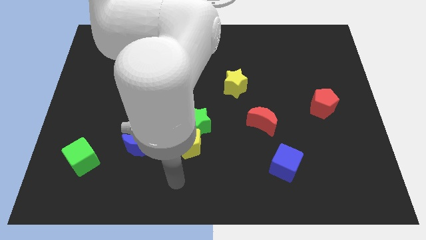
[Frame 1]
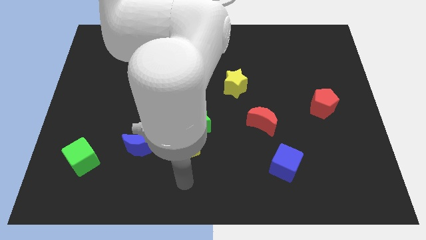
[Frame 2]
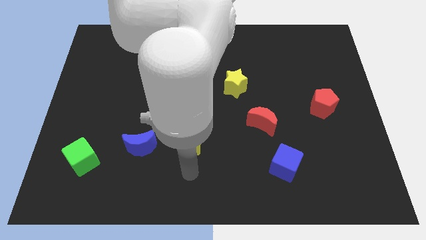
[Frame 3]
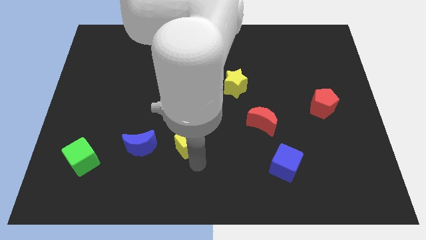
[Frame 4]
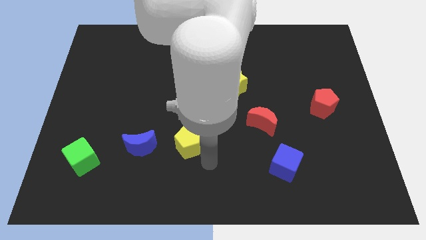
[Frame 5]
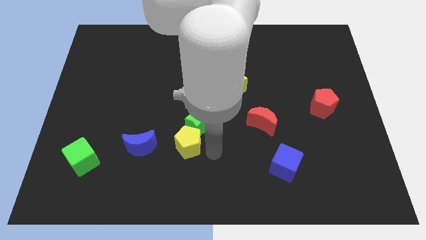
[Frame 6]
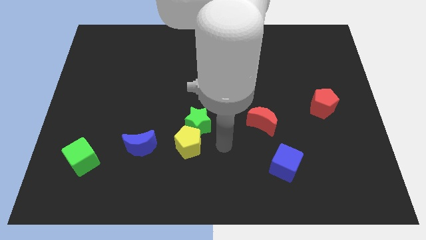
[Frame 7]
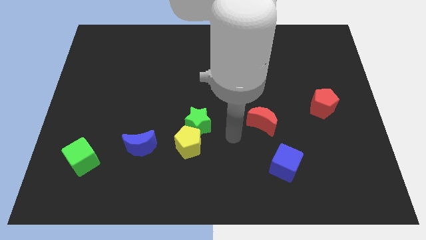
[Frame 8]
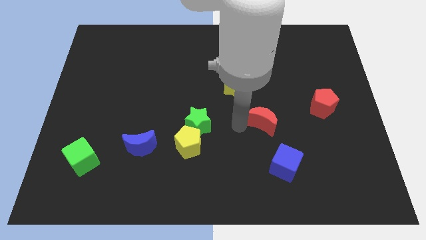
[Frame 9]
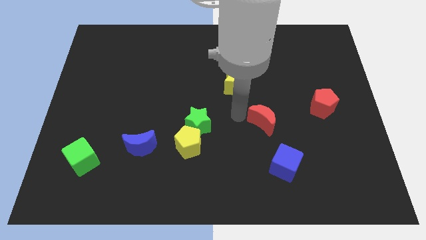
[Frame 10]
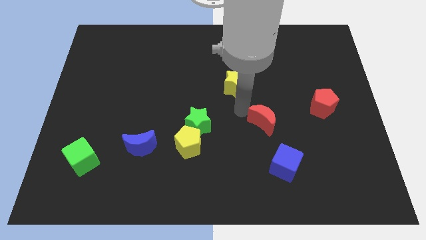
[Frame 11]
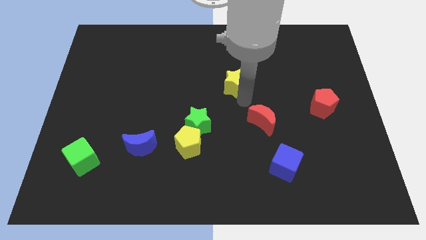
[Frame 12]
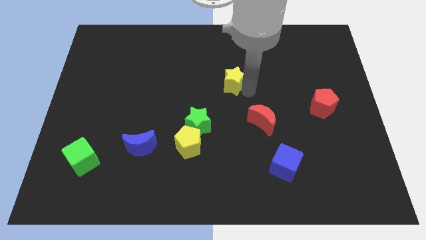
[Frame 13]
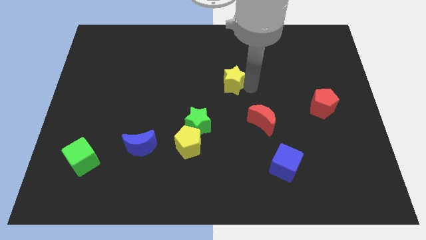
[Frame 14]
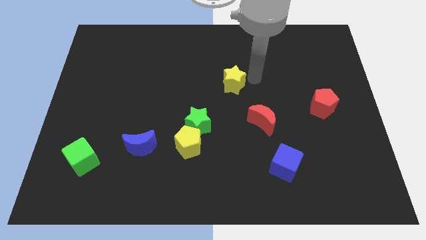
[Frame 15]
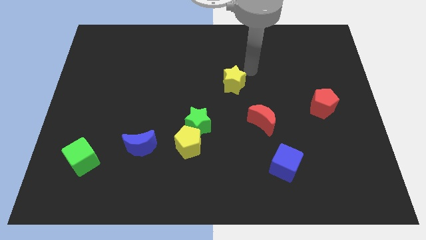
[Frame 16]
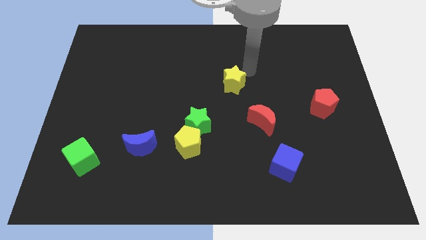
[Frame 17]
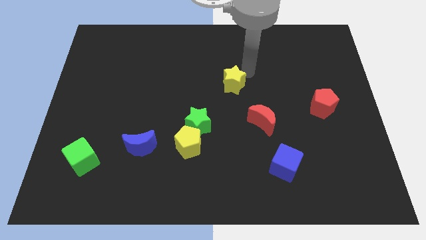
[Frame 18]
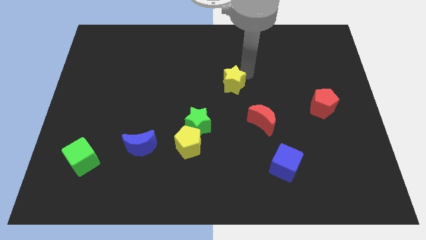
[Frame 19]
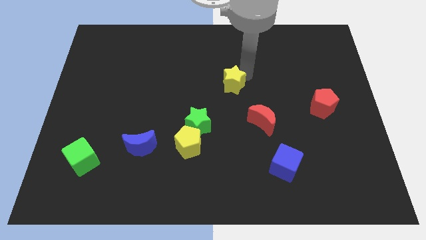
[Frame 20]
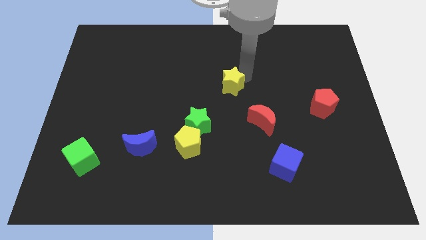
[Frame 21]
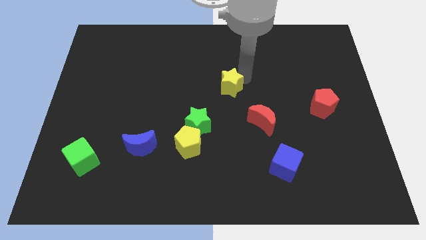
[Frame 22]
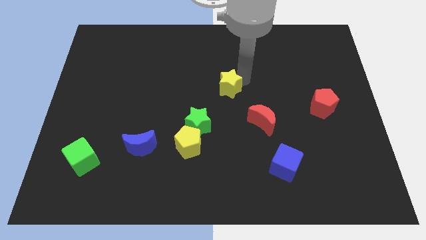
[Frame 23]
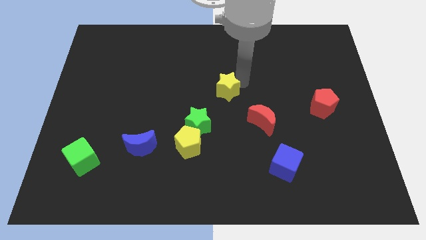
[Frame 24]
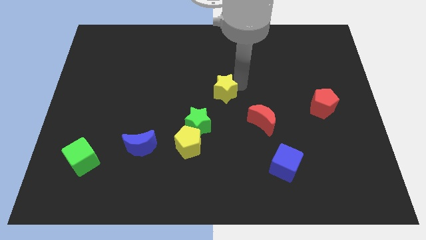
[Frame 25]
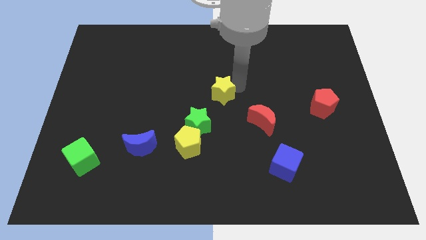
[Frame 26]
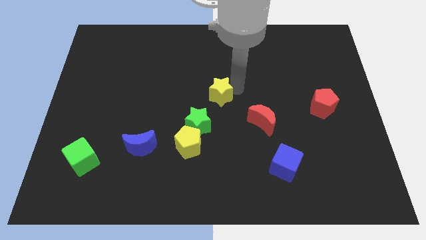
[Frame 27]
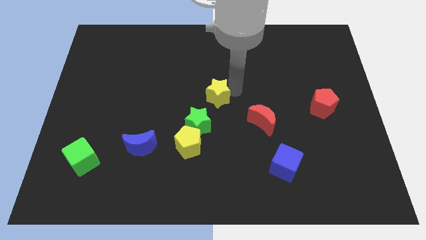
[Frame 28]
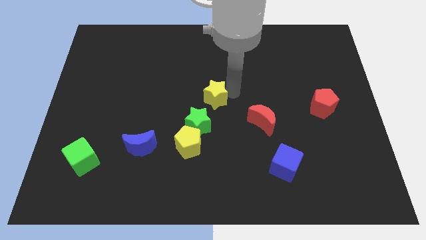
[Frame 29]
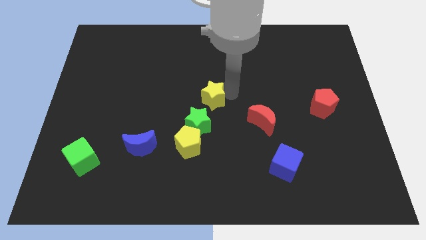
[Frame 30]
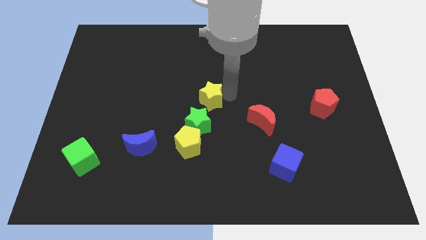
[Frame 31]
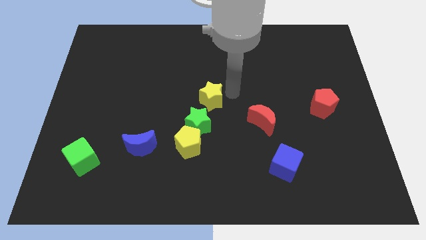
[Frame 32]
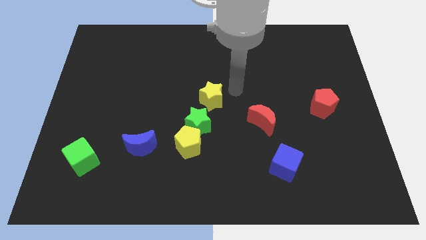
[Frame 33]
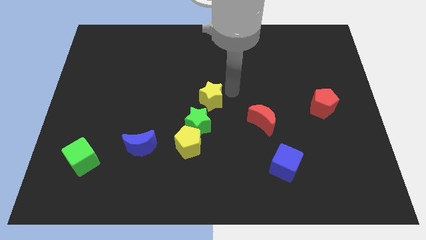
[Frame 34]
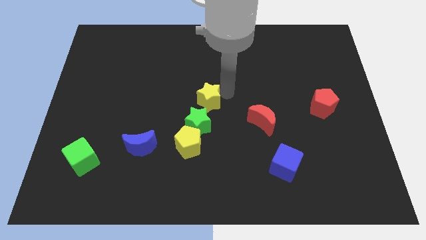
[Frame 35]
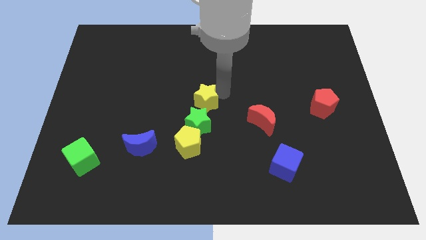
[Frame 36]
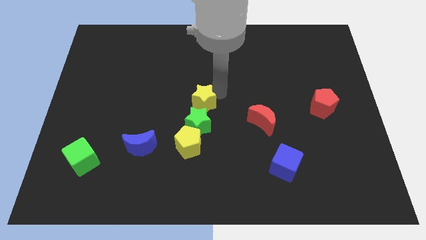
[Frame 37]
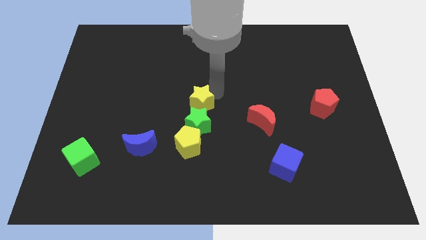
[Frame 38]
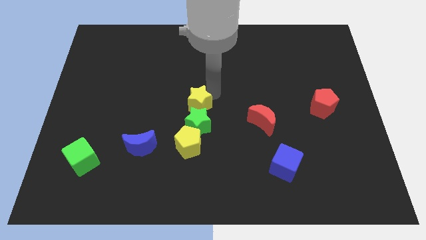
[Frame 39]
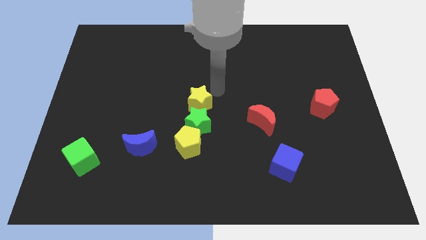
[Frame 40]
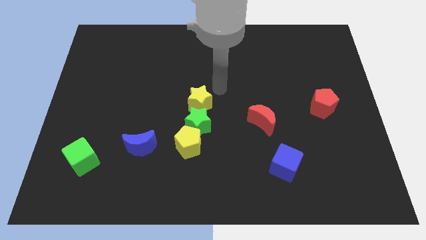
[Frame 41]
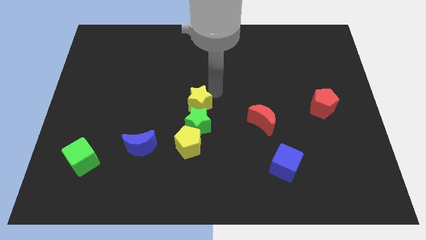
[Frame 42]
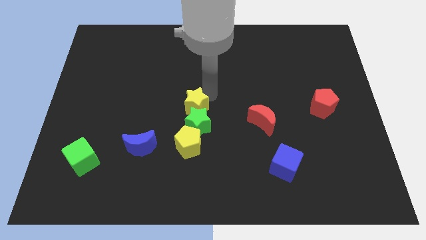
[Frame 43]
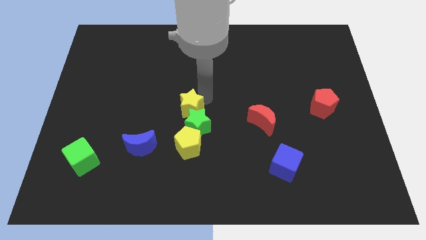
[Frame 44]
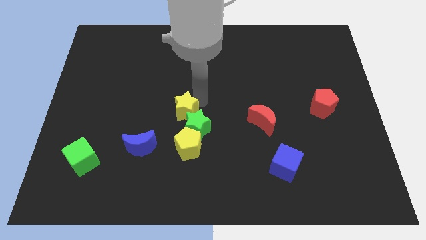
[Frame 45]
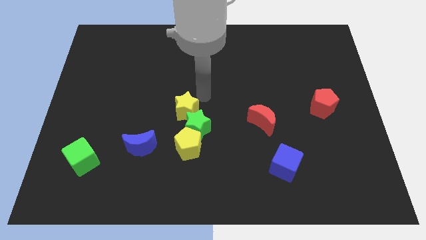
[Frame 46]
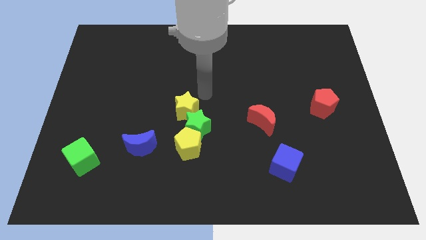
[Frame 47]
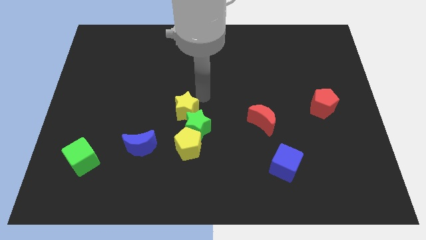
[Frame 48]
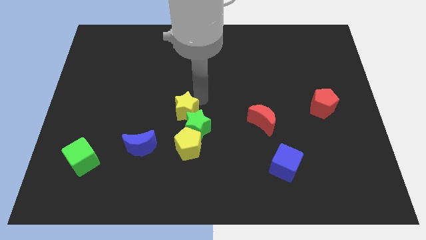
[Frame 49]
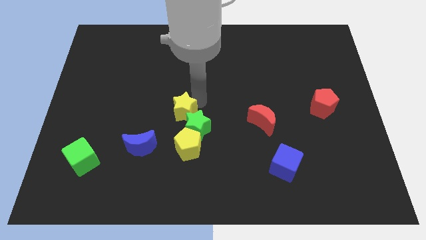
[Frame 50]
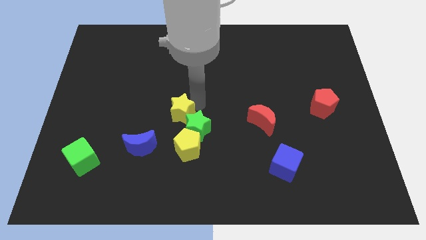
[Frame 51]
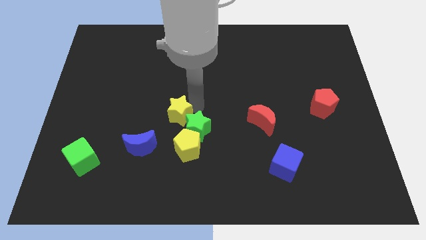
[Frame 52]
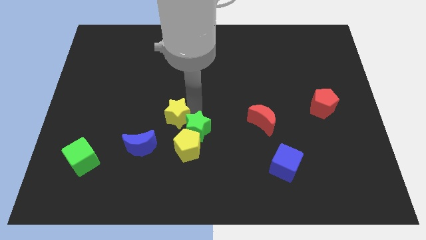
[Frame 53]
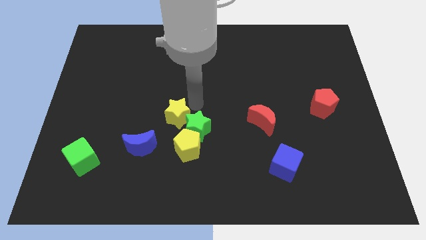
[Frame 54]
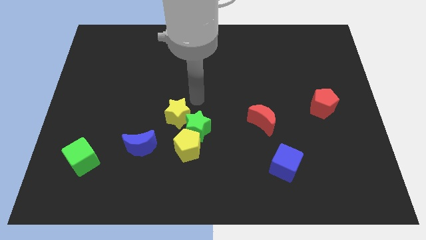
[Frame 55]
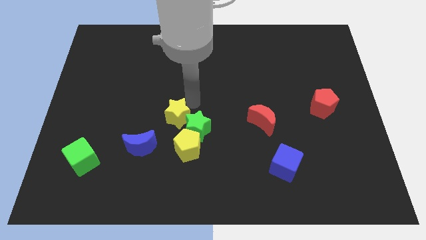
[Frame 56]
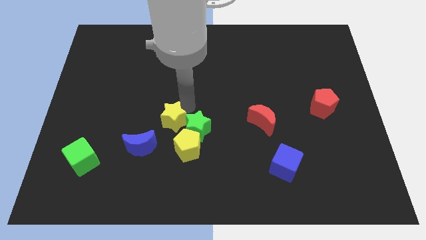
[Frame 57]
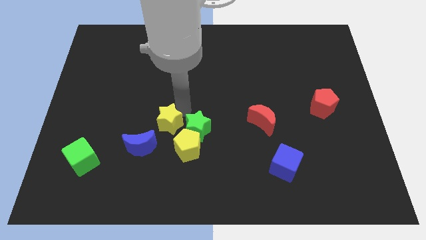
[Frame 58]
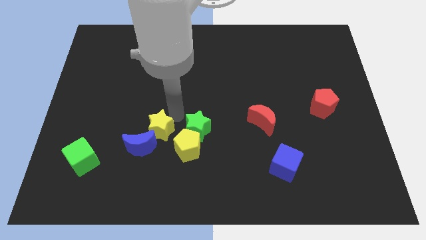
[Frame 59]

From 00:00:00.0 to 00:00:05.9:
push the yellow star next to the blue moon

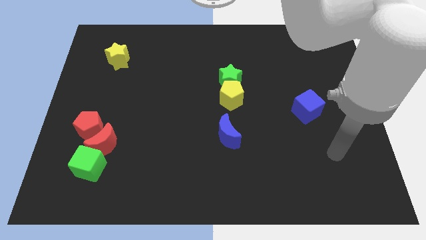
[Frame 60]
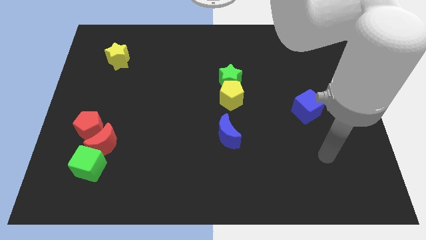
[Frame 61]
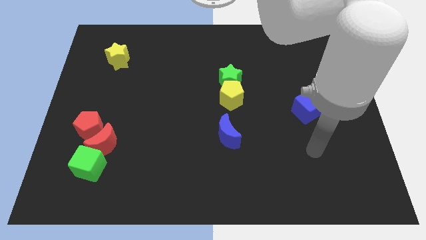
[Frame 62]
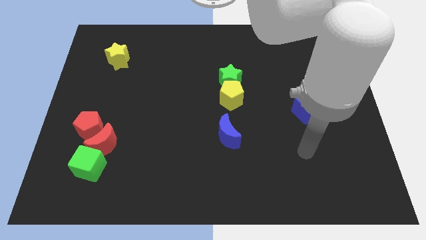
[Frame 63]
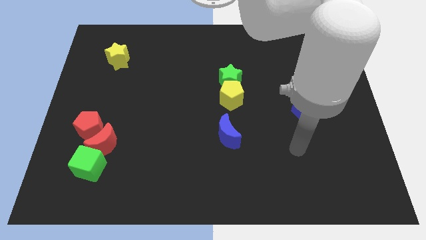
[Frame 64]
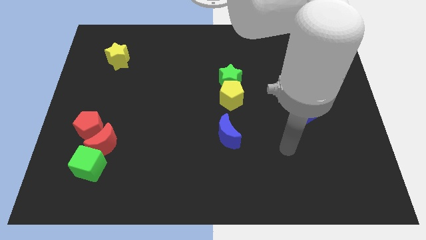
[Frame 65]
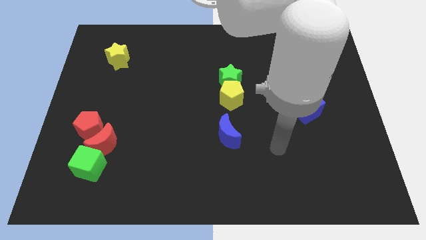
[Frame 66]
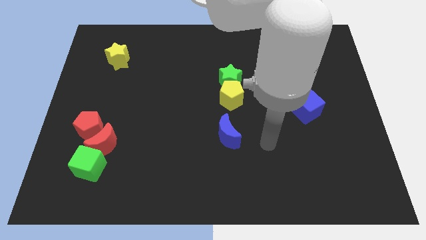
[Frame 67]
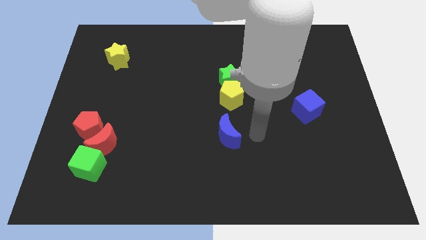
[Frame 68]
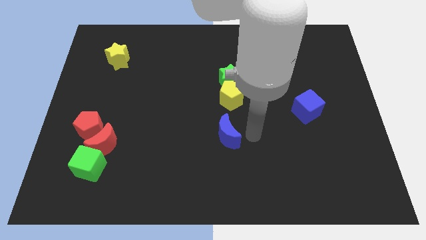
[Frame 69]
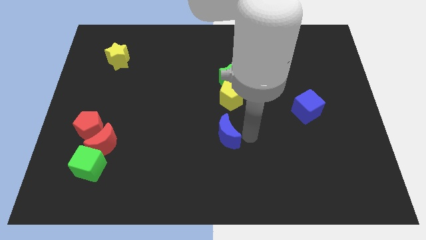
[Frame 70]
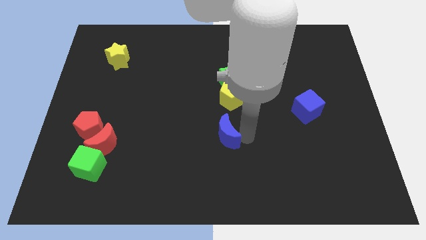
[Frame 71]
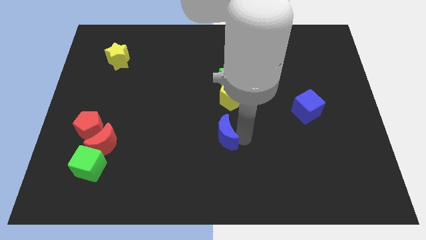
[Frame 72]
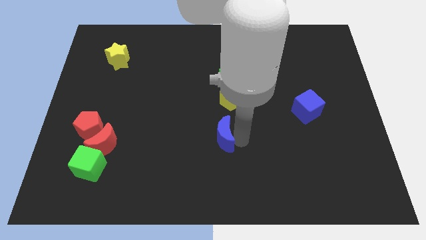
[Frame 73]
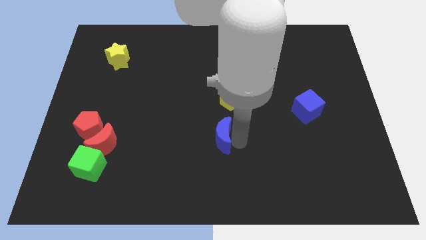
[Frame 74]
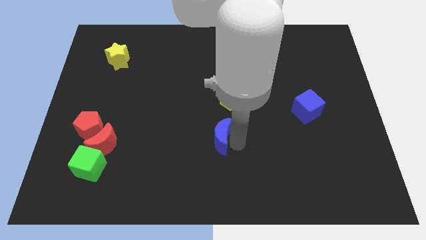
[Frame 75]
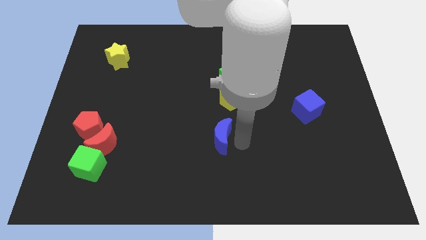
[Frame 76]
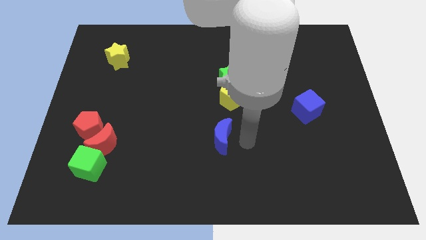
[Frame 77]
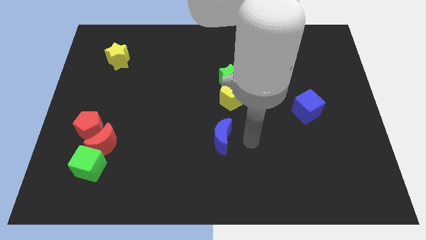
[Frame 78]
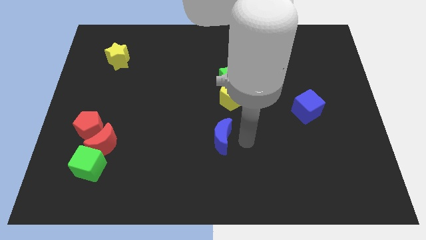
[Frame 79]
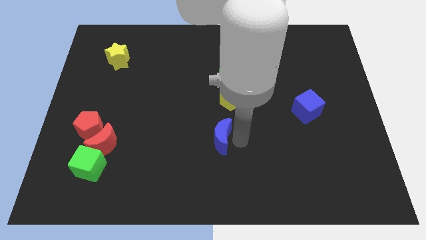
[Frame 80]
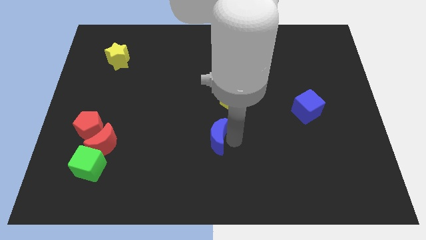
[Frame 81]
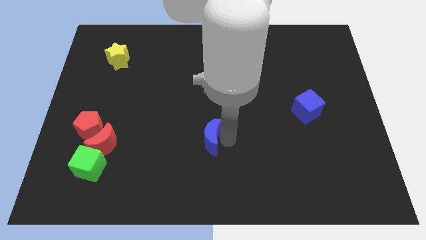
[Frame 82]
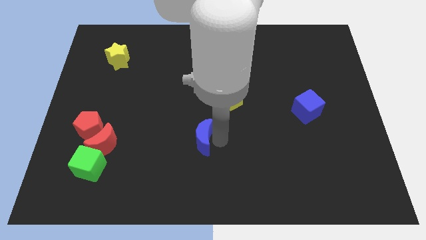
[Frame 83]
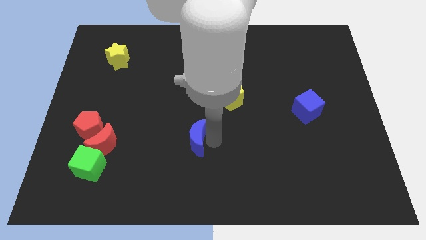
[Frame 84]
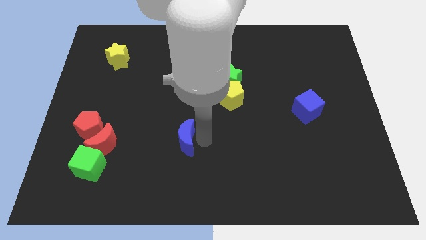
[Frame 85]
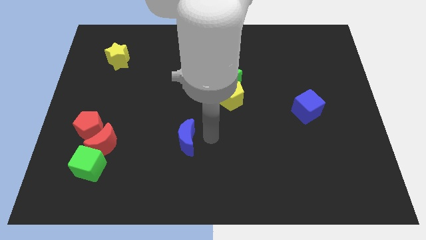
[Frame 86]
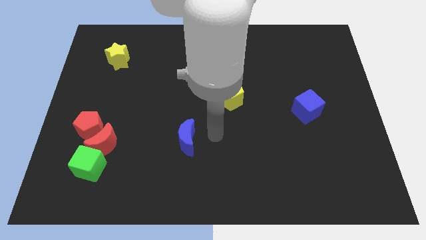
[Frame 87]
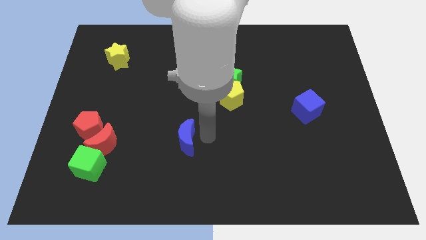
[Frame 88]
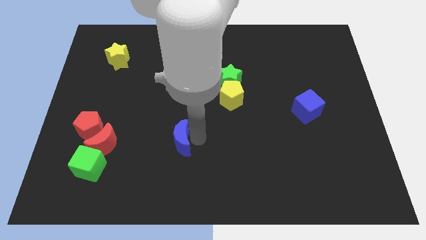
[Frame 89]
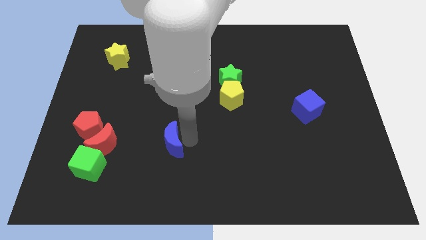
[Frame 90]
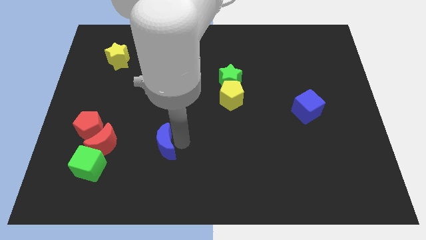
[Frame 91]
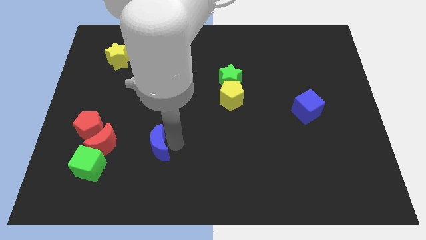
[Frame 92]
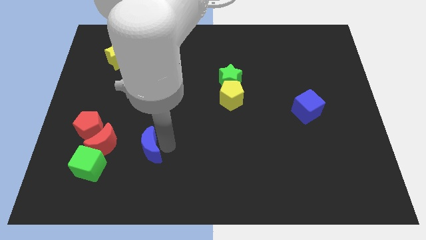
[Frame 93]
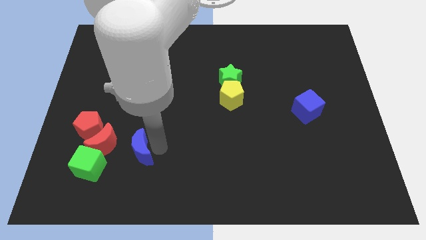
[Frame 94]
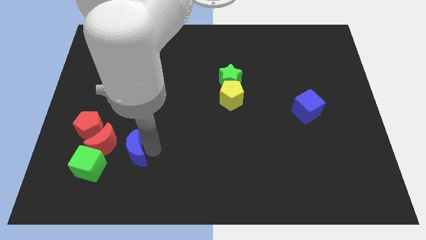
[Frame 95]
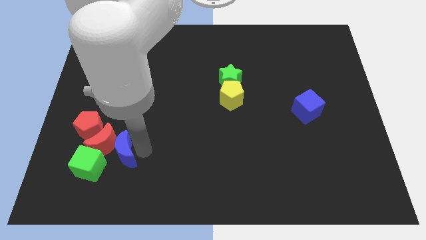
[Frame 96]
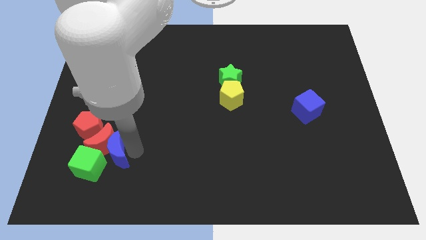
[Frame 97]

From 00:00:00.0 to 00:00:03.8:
slide the blue moon next to the green cube
